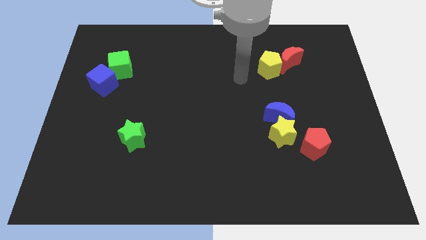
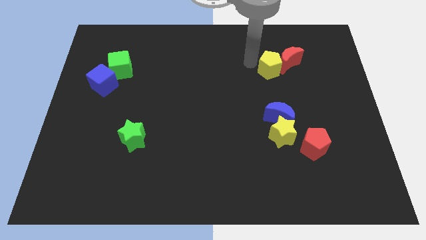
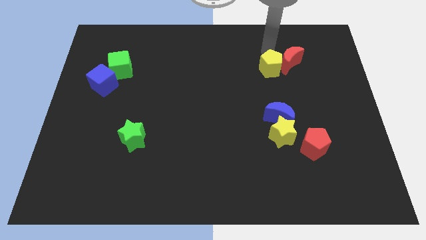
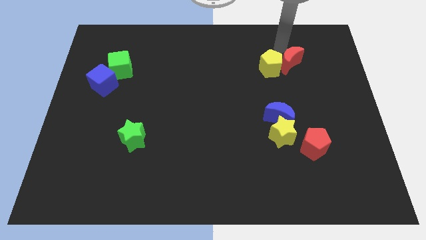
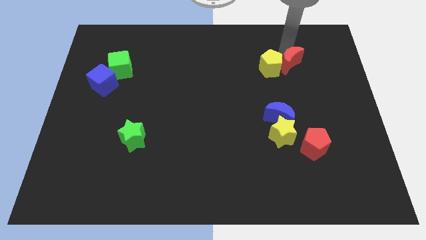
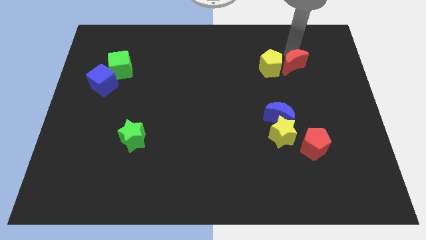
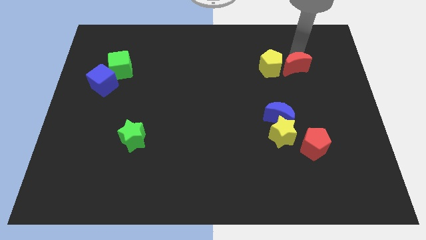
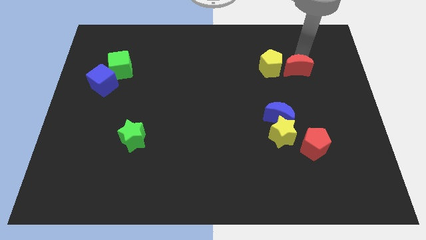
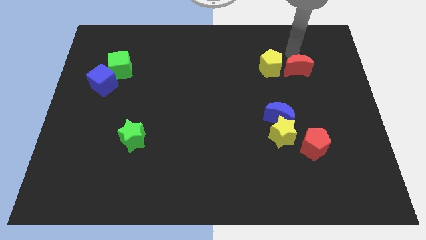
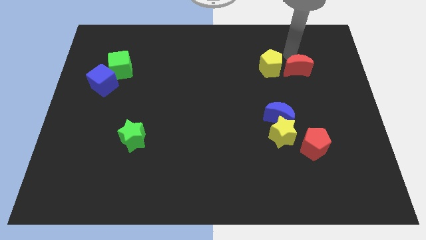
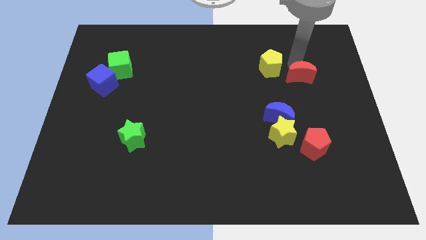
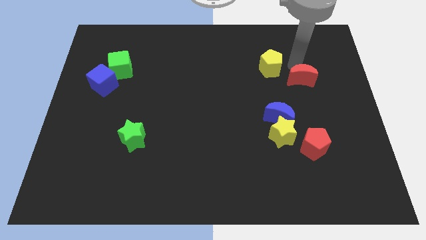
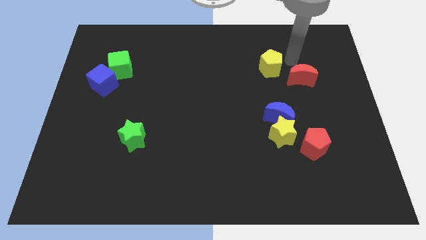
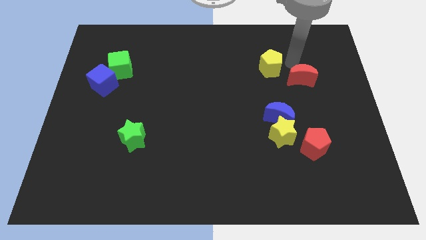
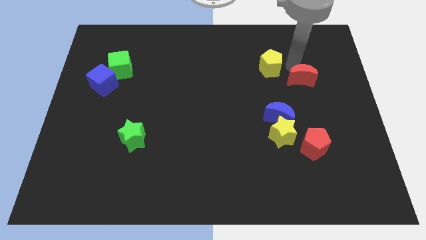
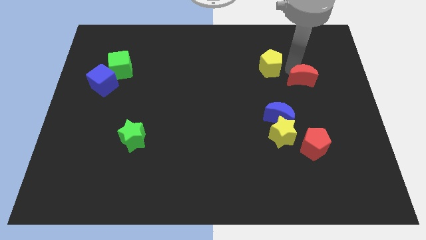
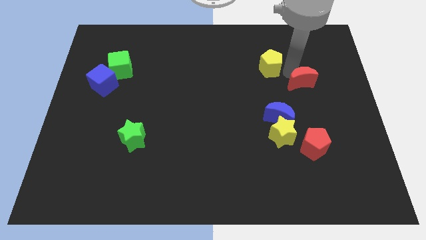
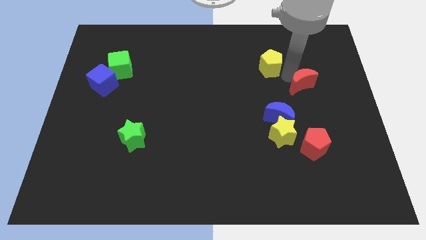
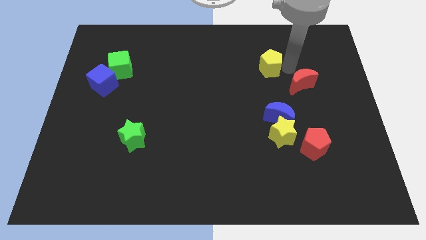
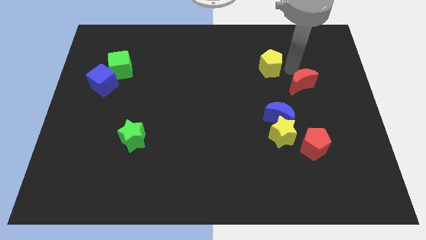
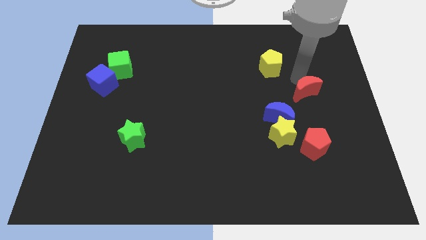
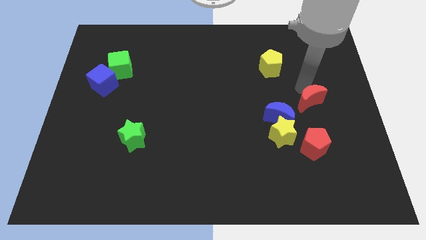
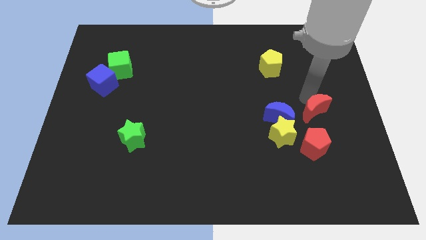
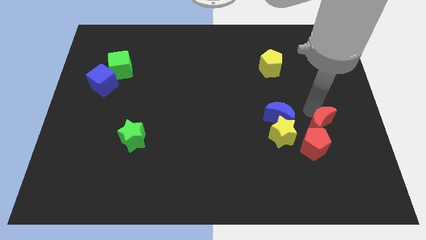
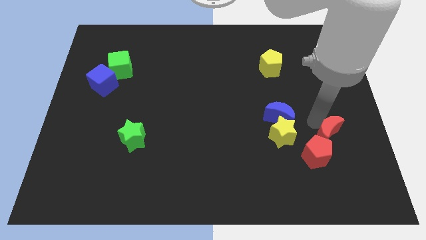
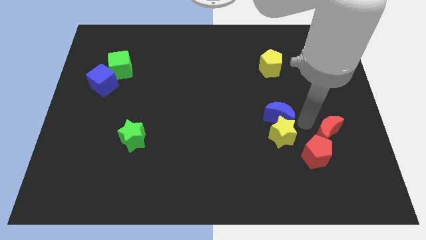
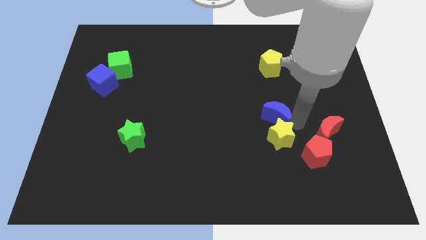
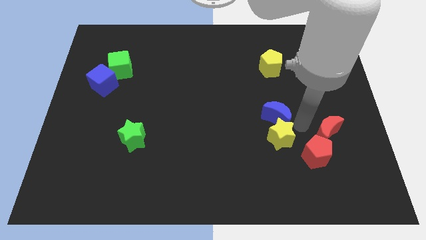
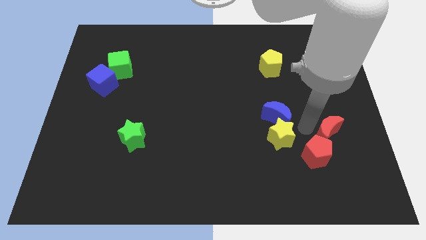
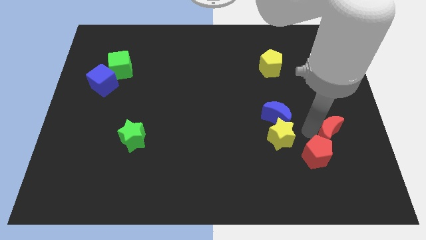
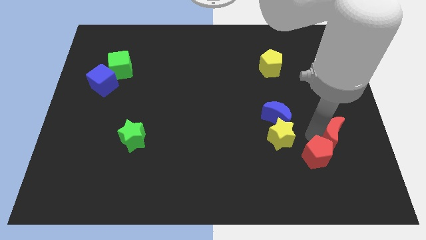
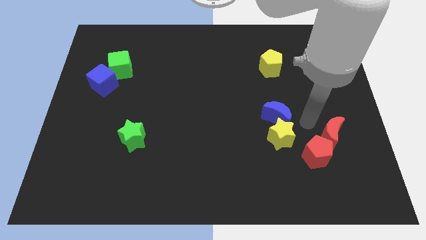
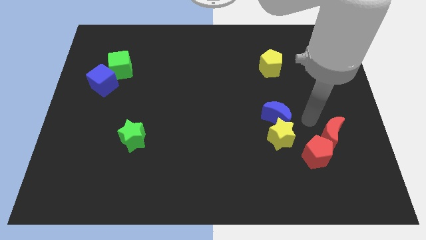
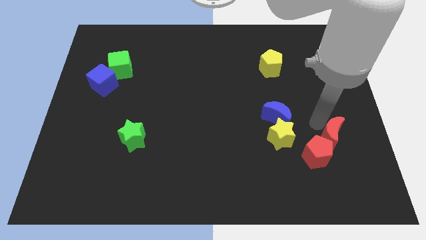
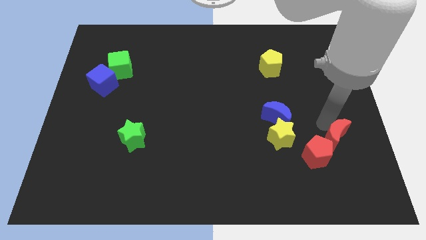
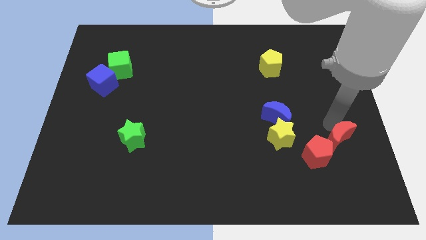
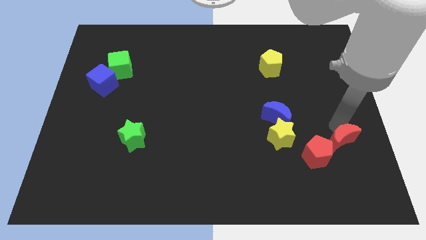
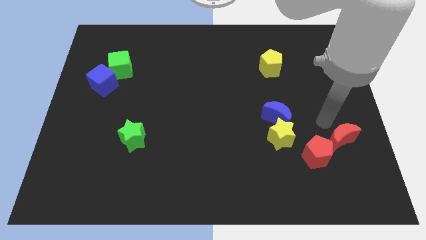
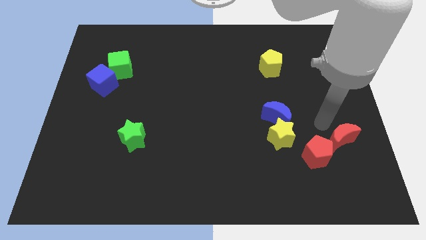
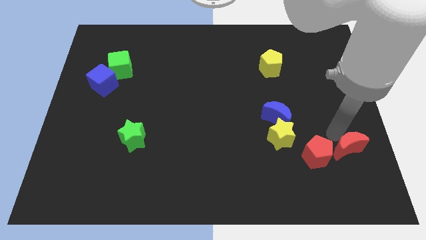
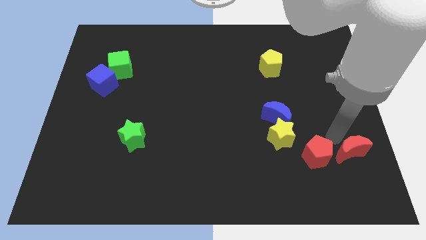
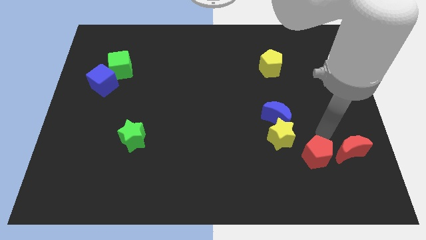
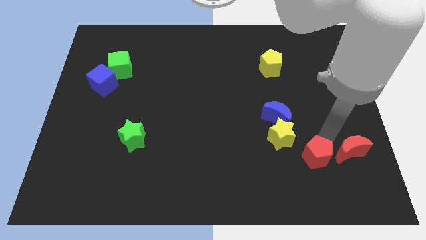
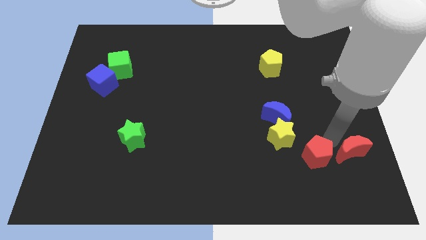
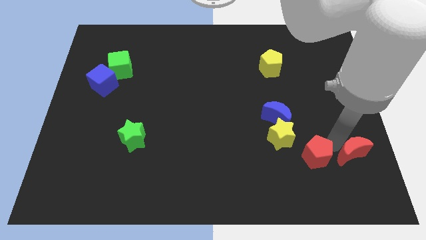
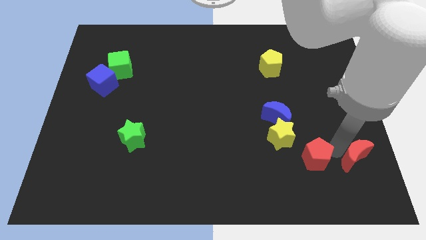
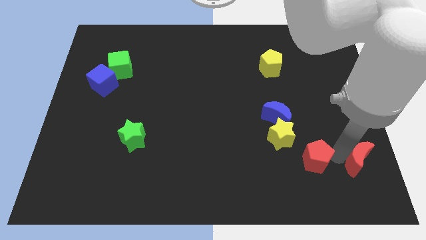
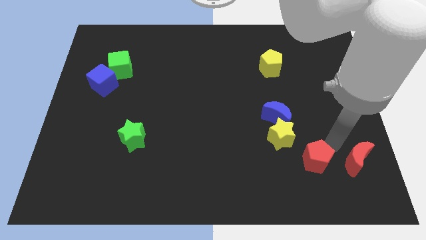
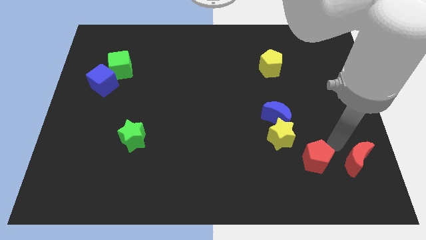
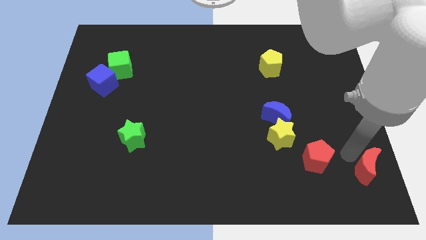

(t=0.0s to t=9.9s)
slide the red moon to the lower right corner

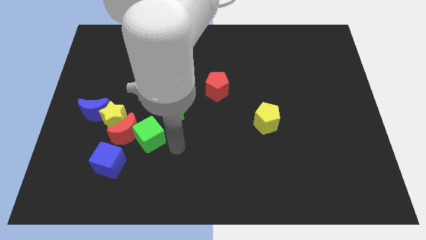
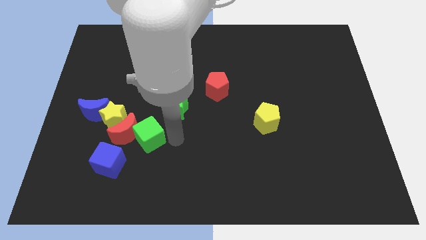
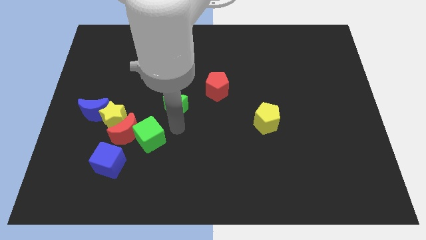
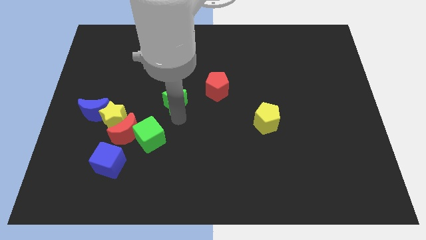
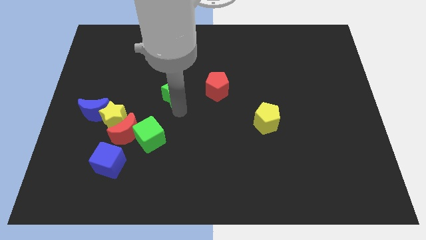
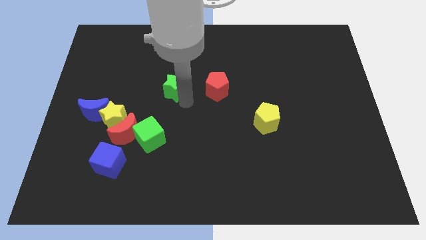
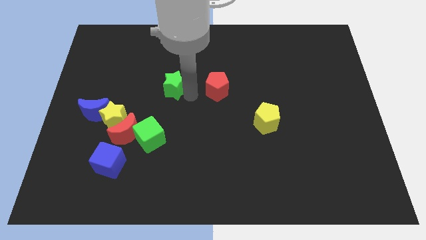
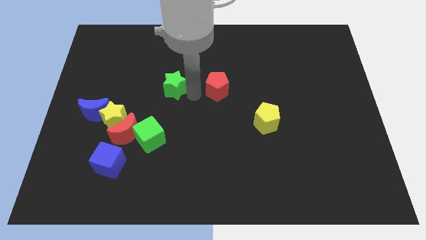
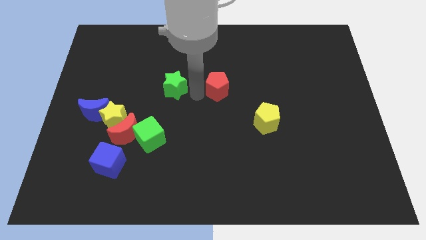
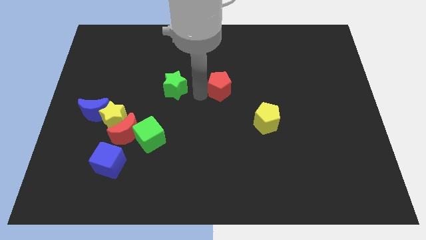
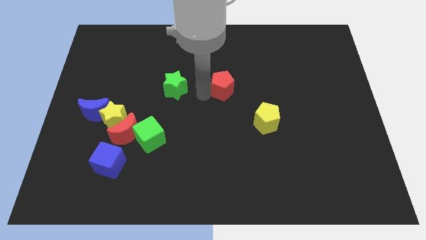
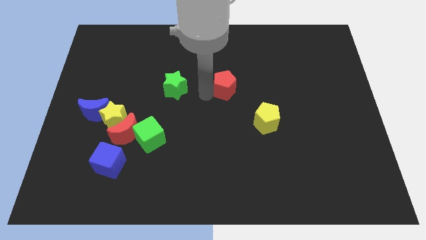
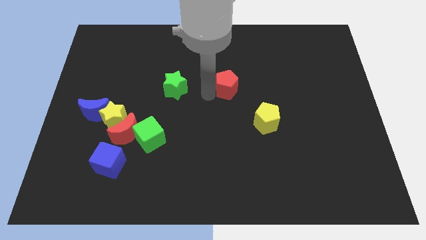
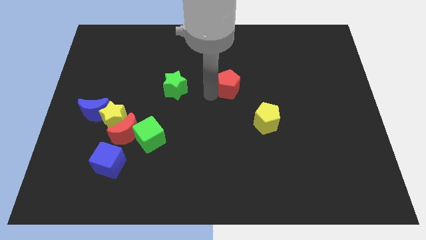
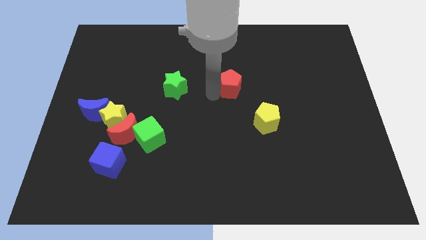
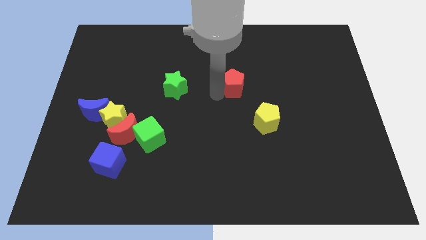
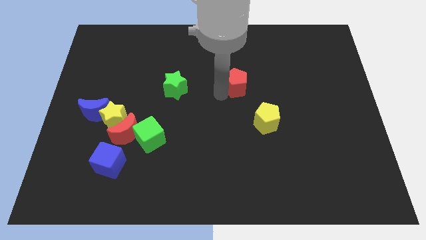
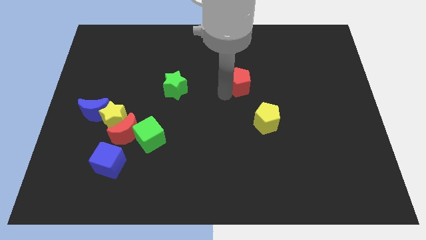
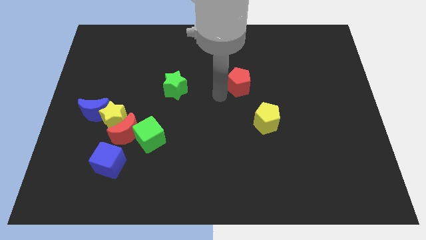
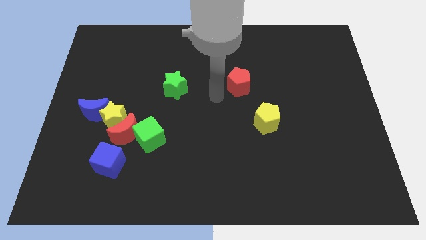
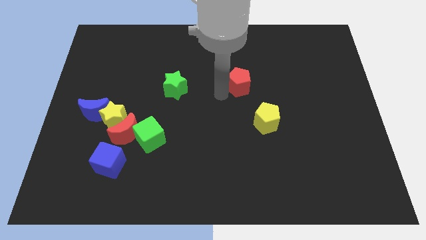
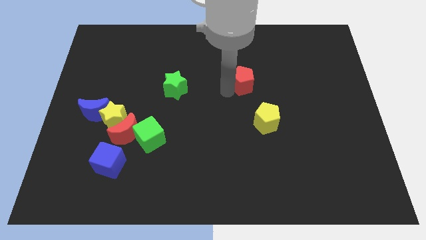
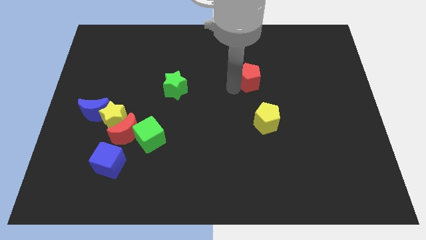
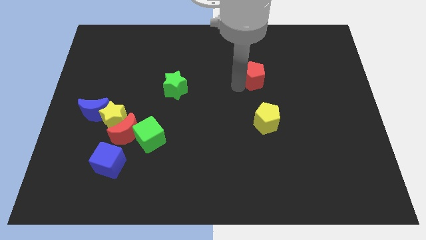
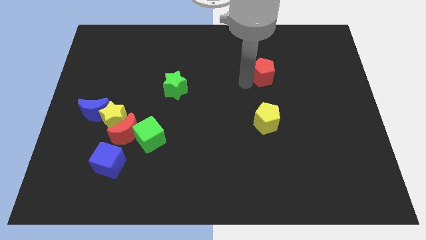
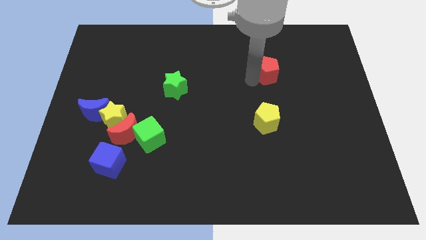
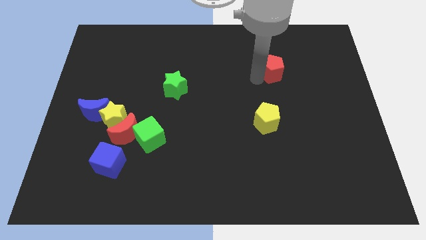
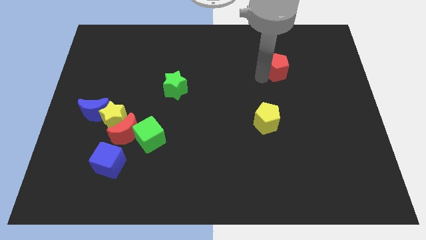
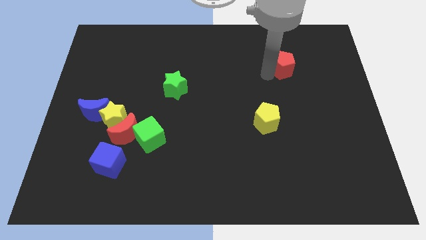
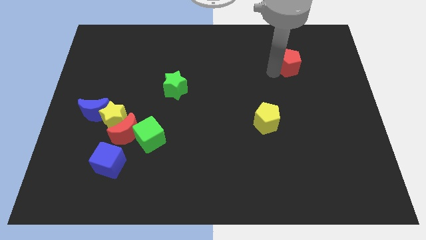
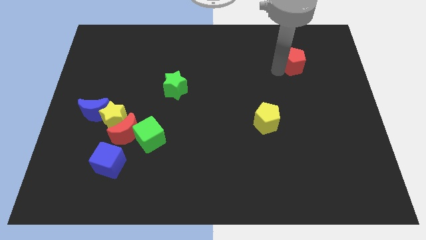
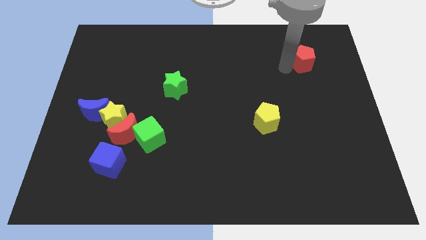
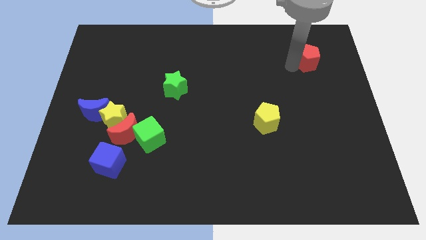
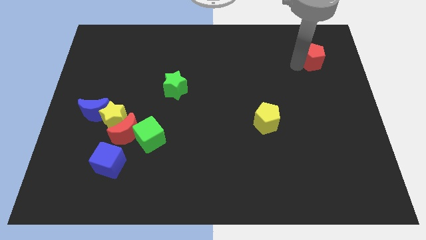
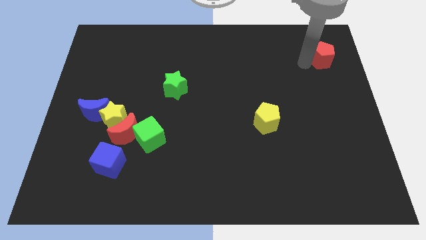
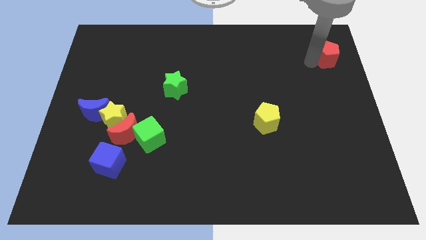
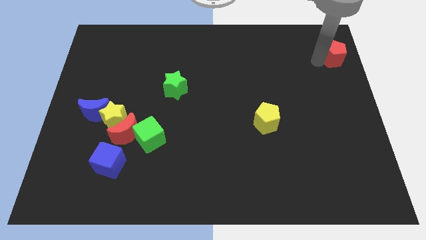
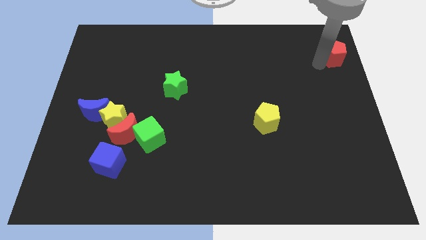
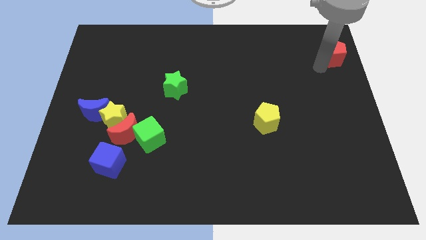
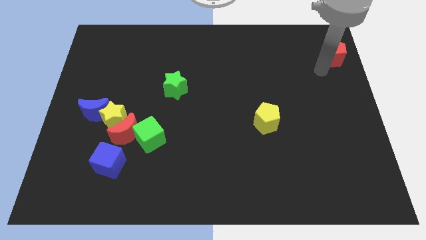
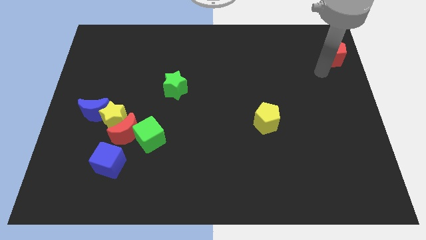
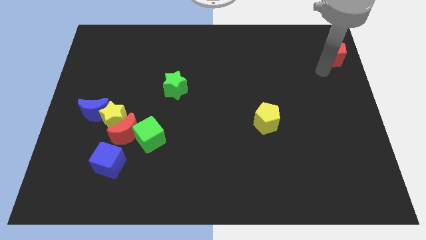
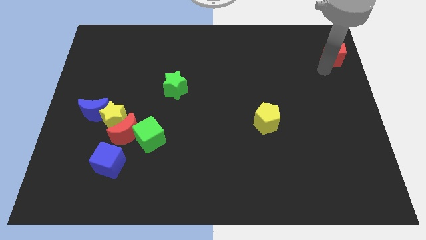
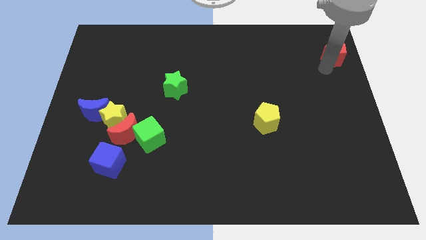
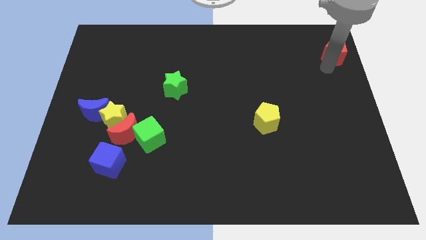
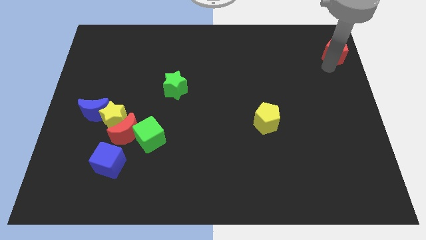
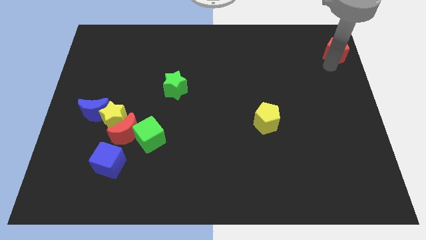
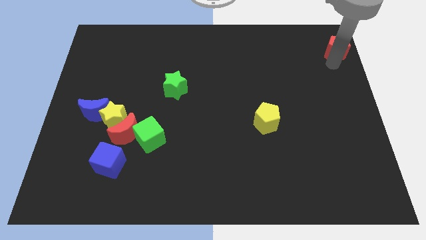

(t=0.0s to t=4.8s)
put the red pentagon to the top right corner
